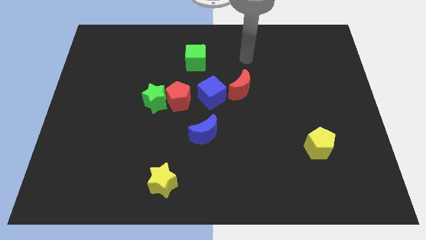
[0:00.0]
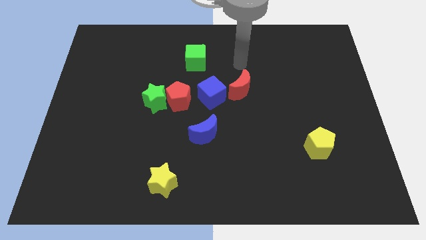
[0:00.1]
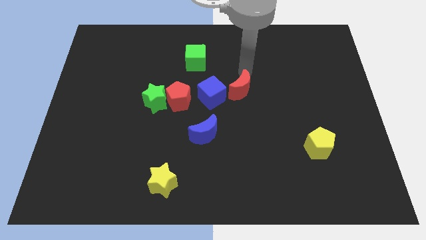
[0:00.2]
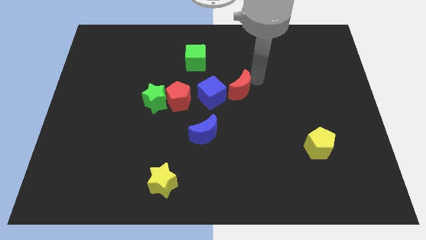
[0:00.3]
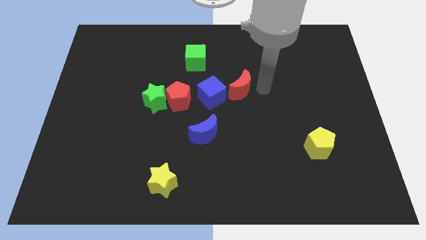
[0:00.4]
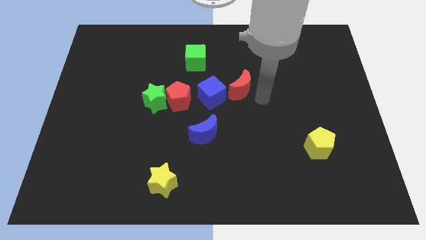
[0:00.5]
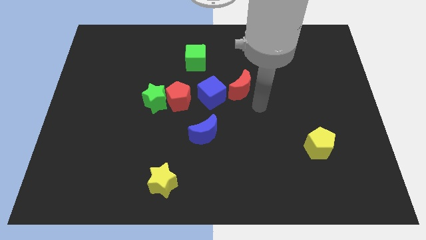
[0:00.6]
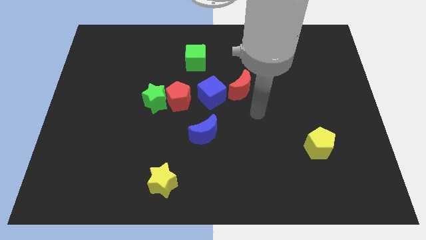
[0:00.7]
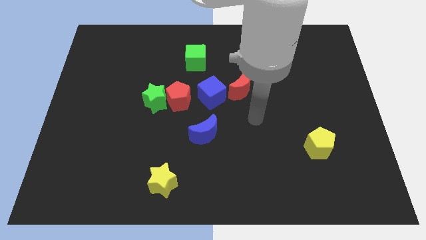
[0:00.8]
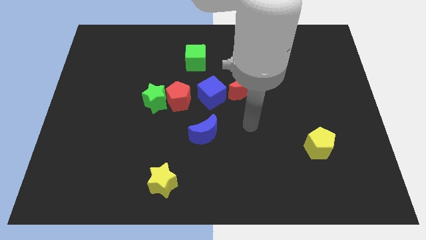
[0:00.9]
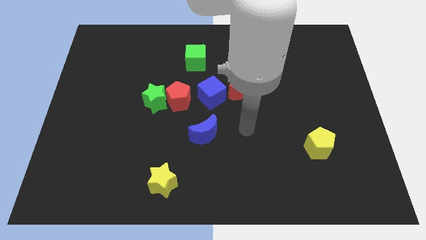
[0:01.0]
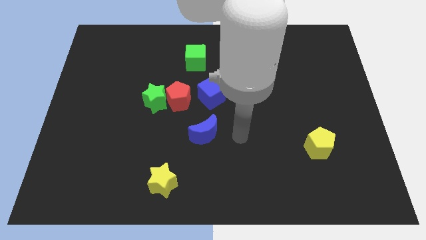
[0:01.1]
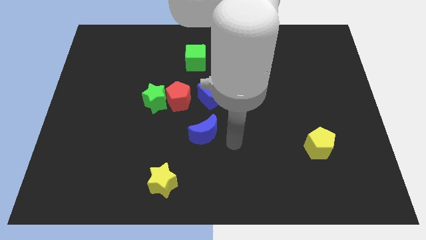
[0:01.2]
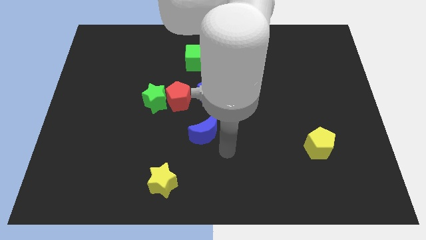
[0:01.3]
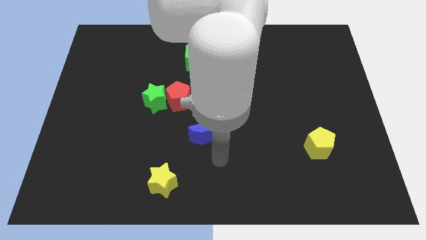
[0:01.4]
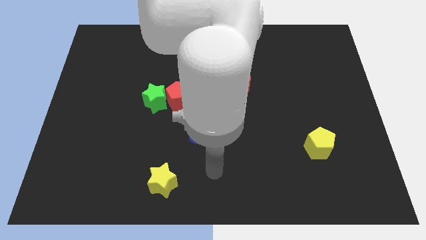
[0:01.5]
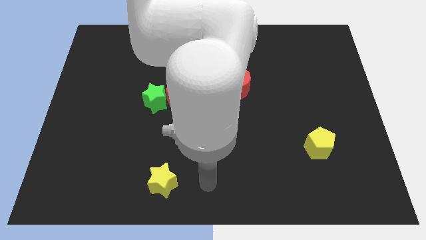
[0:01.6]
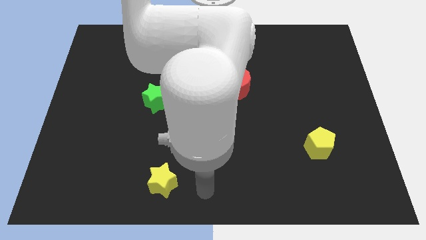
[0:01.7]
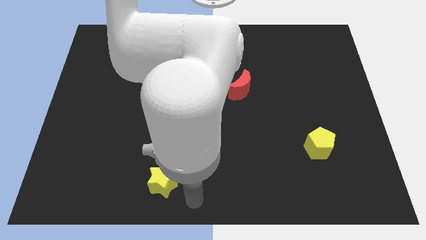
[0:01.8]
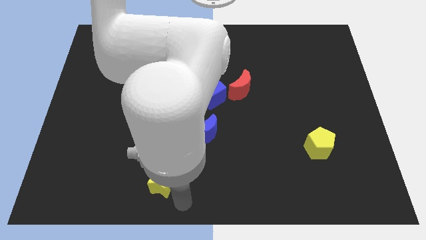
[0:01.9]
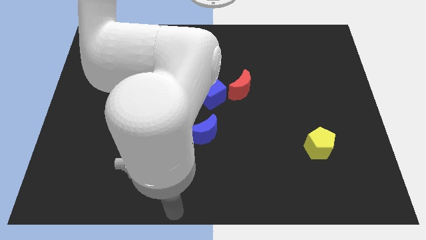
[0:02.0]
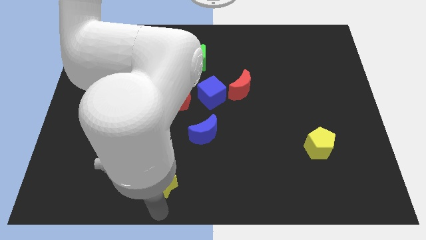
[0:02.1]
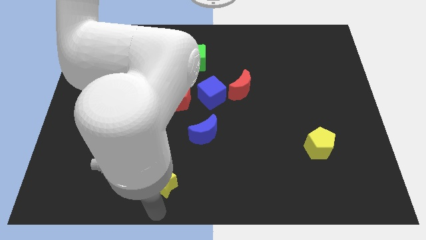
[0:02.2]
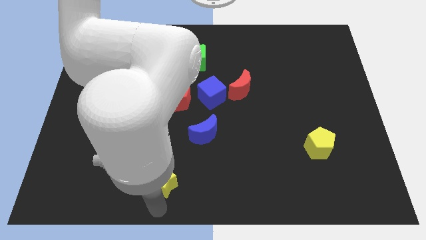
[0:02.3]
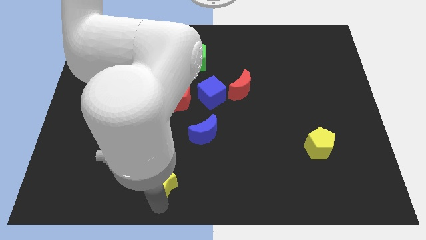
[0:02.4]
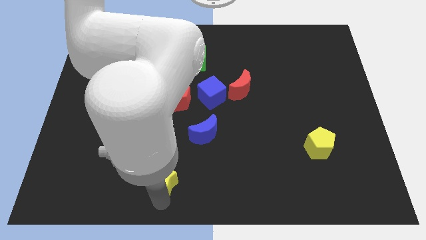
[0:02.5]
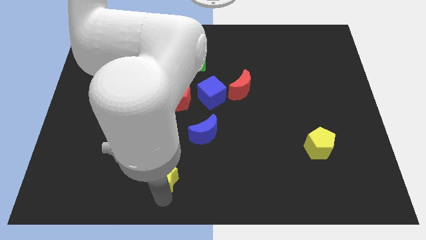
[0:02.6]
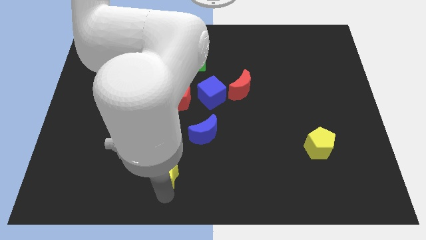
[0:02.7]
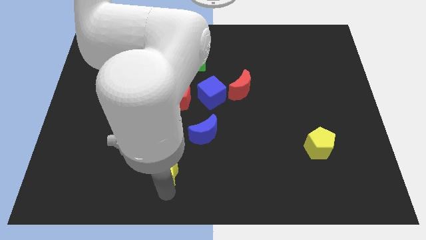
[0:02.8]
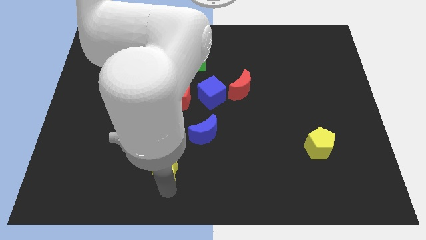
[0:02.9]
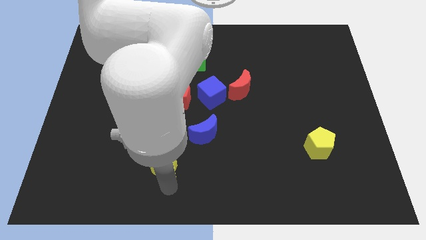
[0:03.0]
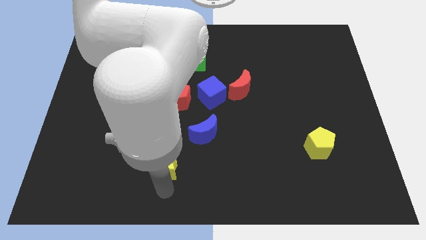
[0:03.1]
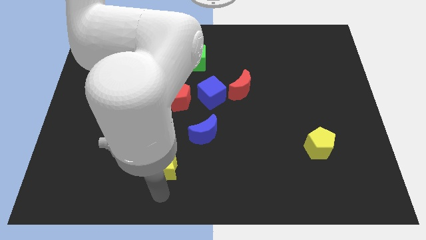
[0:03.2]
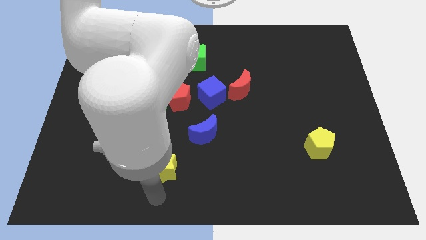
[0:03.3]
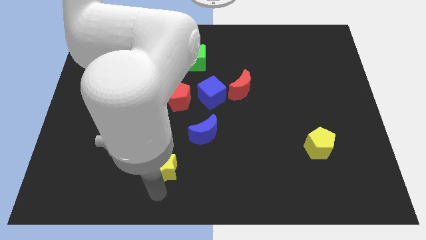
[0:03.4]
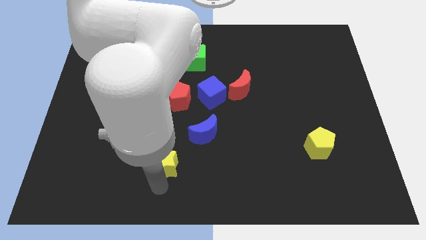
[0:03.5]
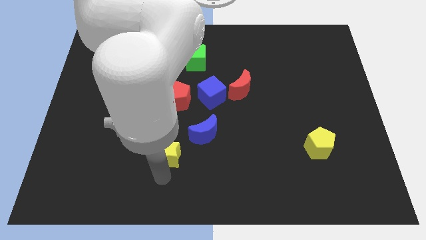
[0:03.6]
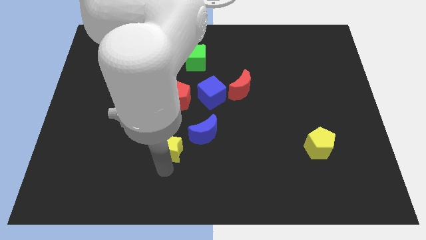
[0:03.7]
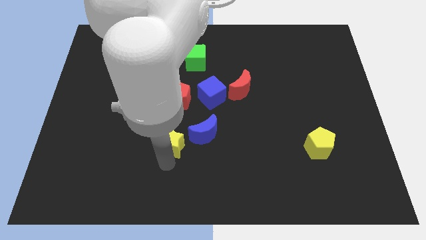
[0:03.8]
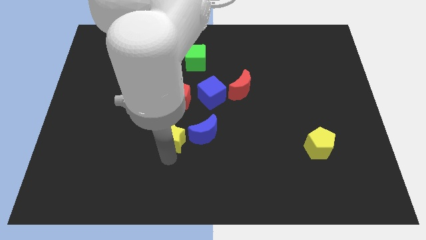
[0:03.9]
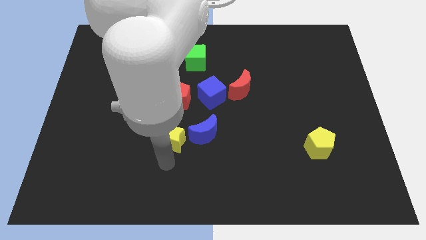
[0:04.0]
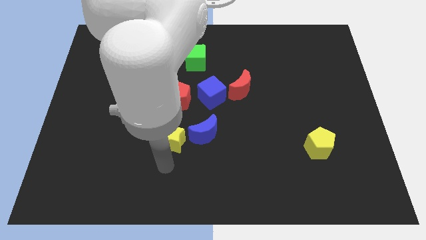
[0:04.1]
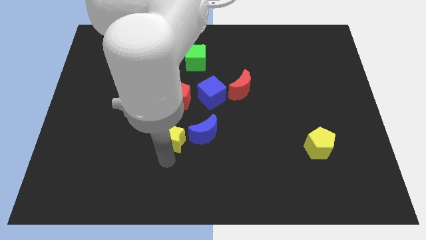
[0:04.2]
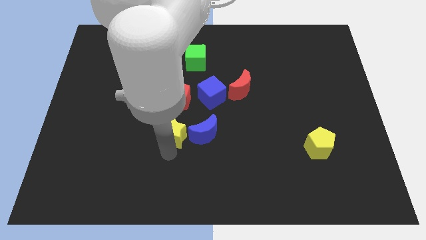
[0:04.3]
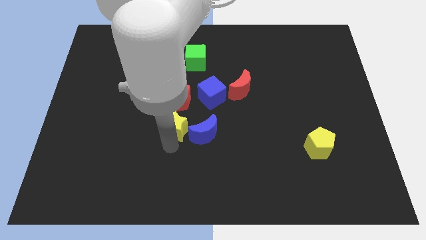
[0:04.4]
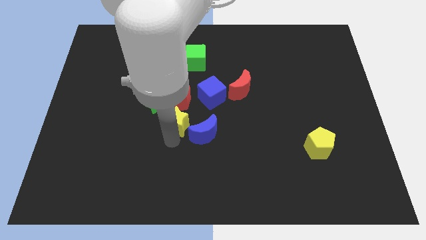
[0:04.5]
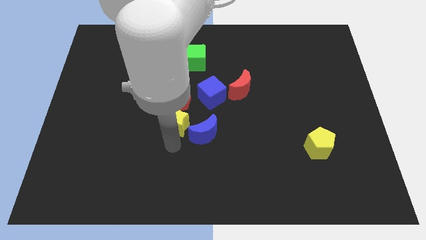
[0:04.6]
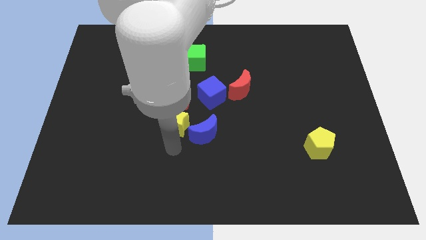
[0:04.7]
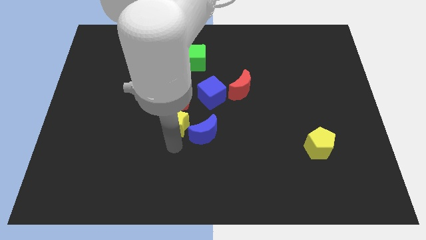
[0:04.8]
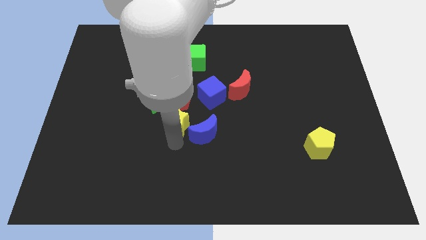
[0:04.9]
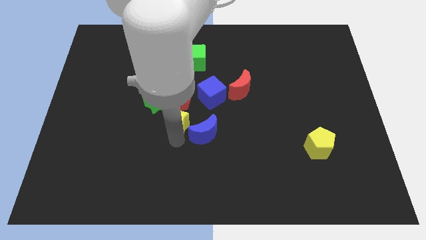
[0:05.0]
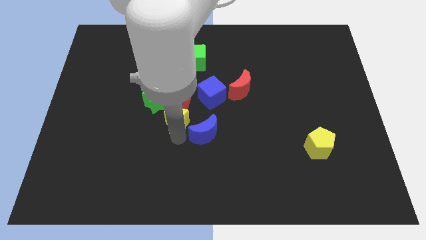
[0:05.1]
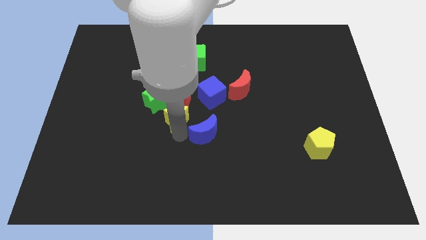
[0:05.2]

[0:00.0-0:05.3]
push the yellow star next to the red pentagon

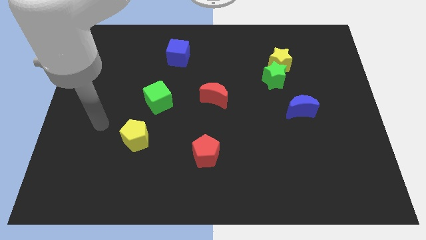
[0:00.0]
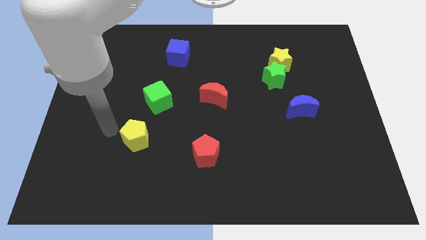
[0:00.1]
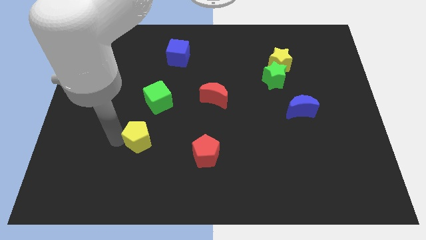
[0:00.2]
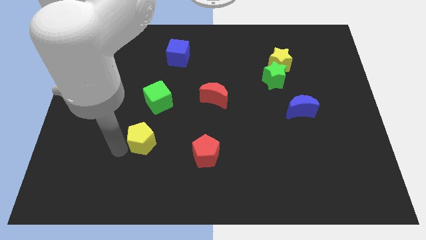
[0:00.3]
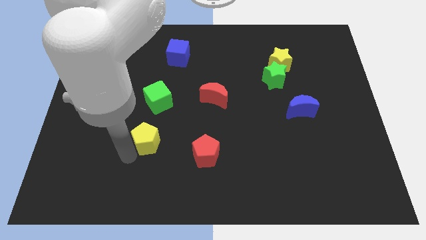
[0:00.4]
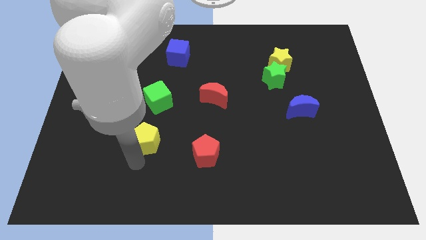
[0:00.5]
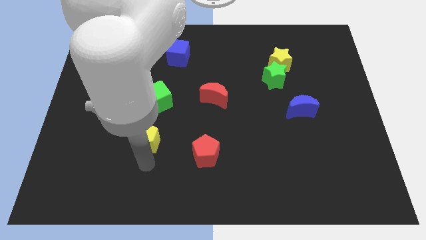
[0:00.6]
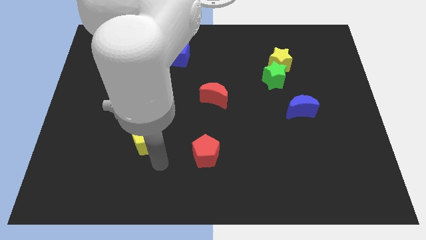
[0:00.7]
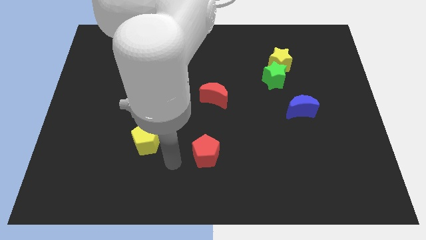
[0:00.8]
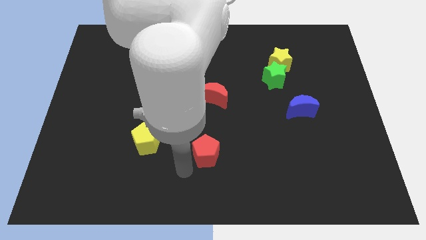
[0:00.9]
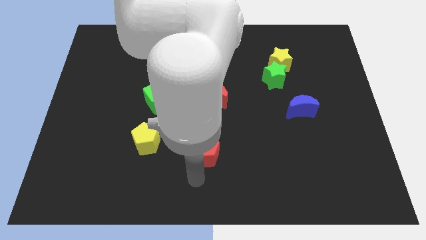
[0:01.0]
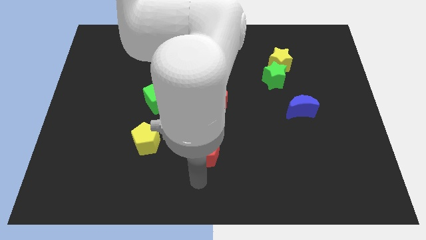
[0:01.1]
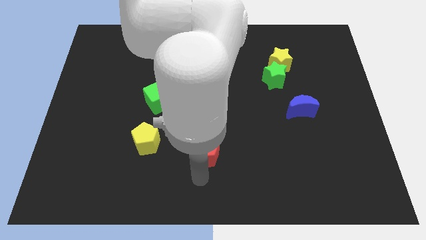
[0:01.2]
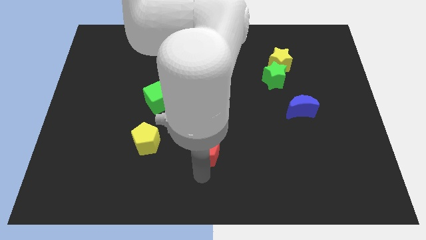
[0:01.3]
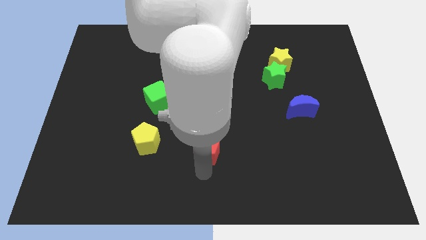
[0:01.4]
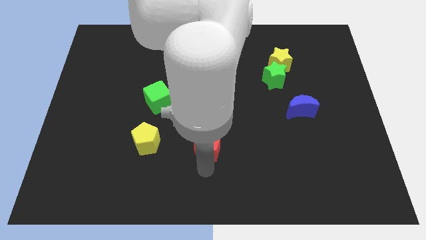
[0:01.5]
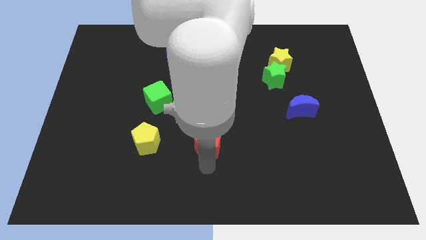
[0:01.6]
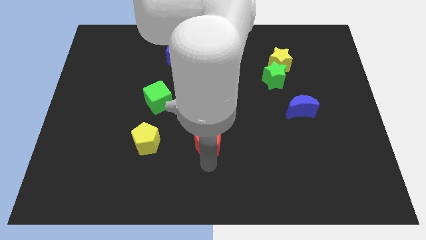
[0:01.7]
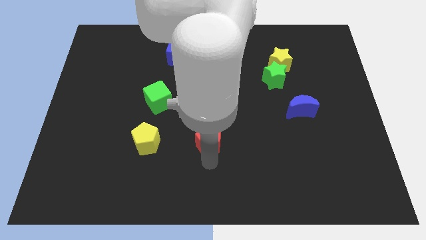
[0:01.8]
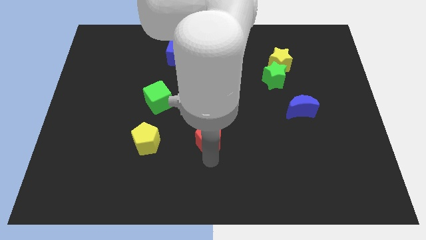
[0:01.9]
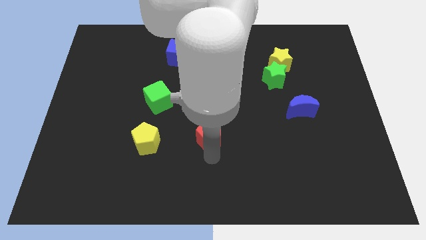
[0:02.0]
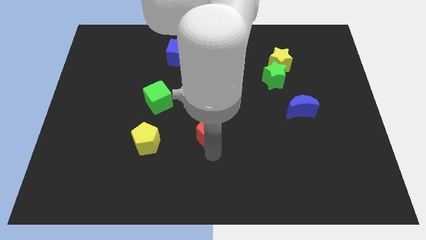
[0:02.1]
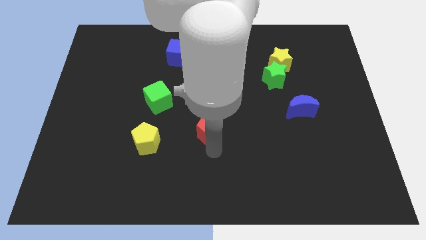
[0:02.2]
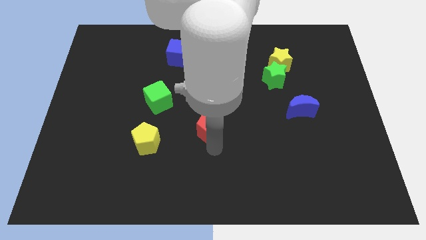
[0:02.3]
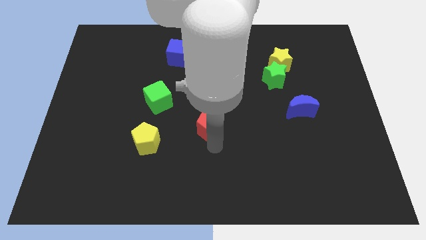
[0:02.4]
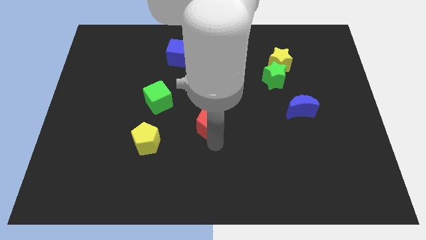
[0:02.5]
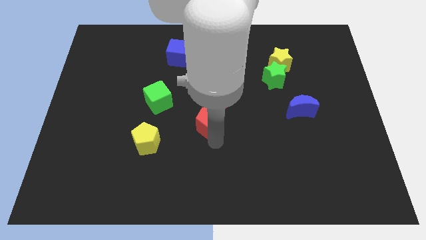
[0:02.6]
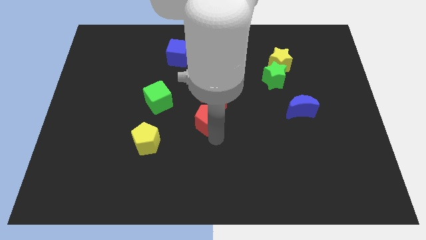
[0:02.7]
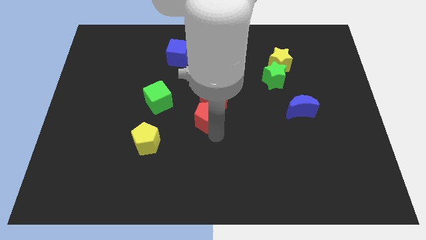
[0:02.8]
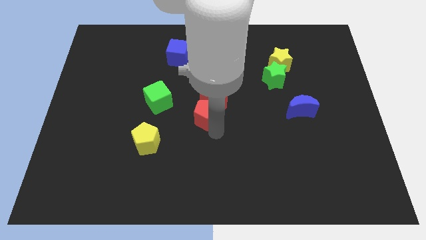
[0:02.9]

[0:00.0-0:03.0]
slide the red pentagon to the red moon
